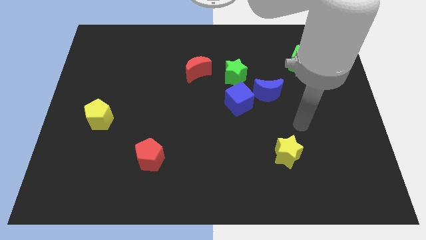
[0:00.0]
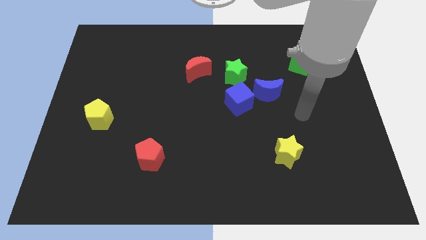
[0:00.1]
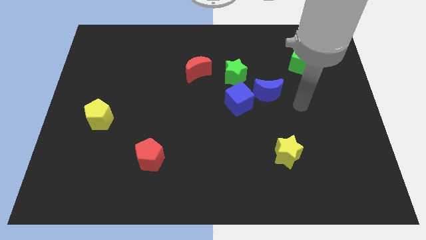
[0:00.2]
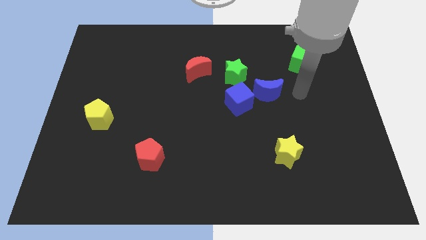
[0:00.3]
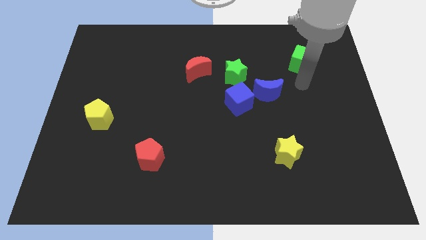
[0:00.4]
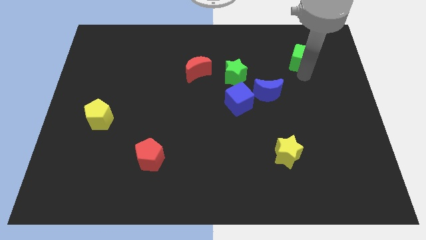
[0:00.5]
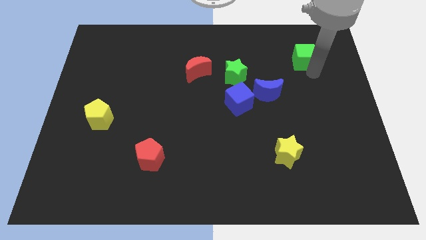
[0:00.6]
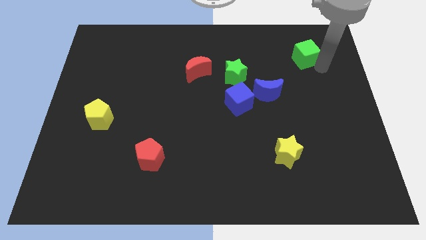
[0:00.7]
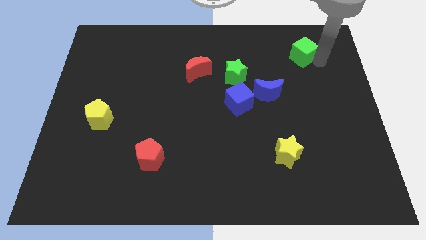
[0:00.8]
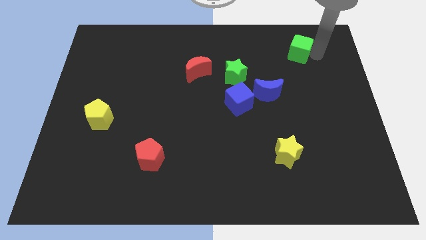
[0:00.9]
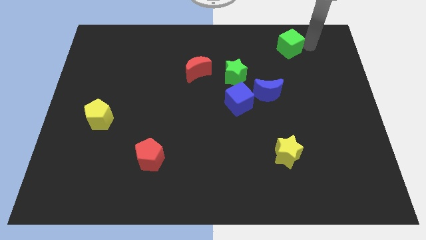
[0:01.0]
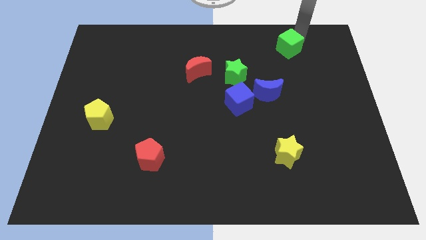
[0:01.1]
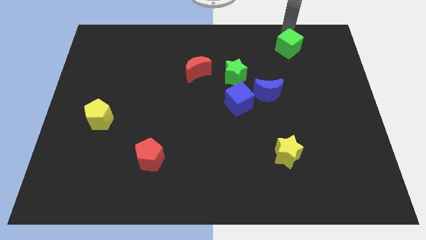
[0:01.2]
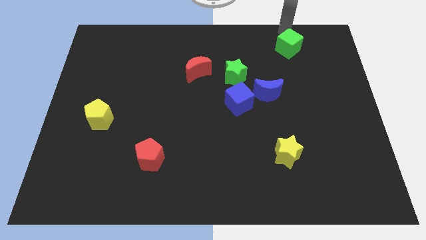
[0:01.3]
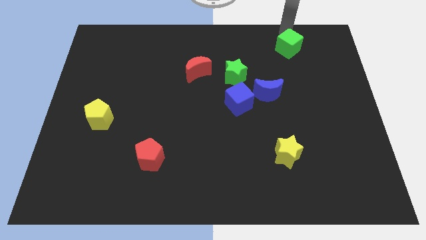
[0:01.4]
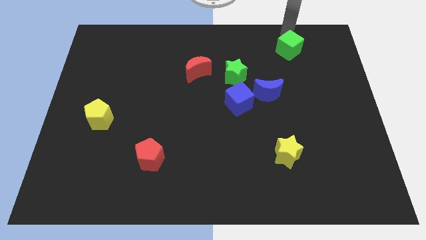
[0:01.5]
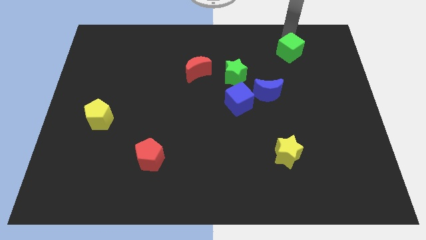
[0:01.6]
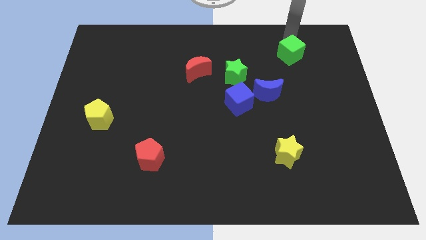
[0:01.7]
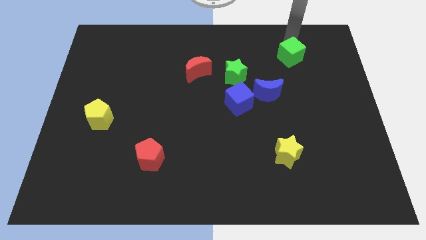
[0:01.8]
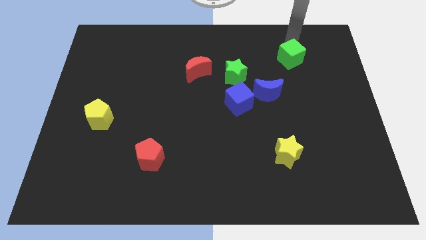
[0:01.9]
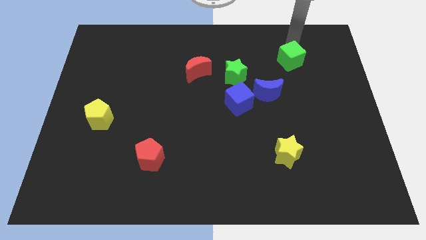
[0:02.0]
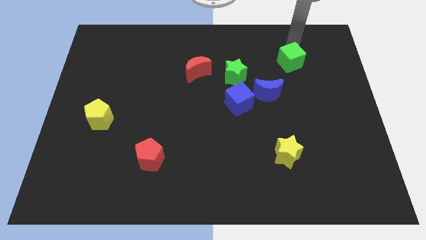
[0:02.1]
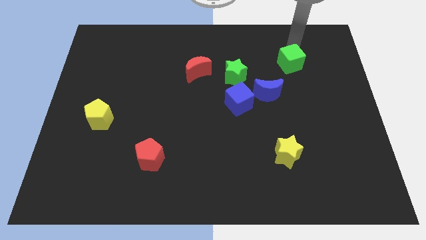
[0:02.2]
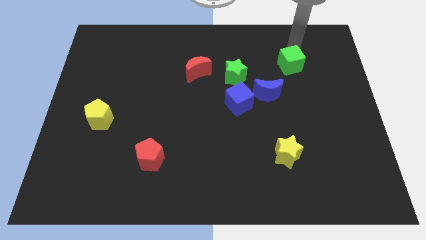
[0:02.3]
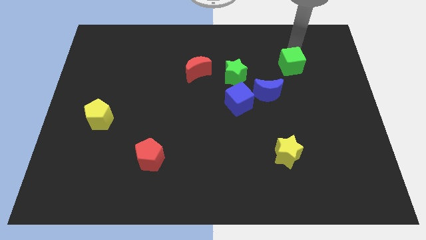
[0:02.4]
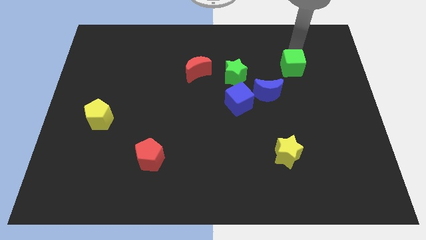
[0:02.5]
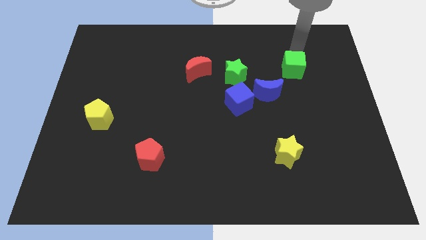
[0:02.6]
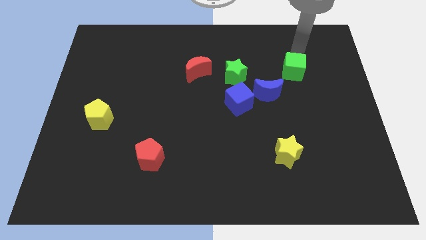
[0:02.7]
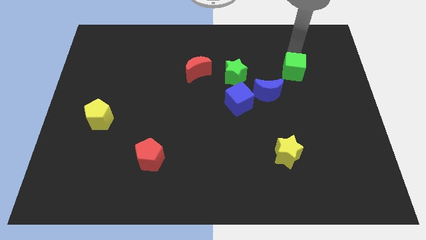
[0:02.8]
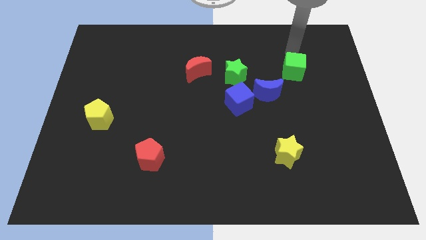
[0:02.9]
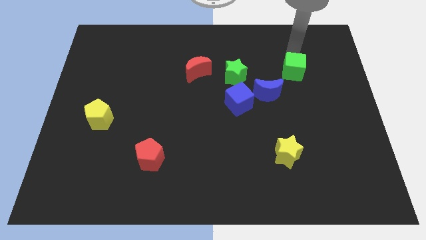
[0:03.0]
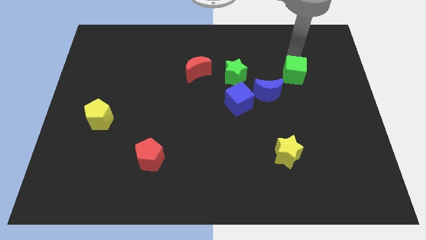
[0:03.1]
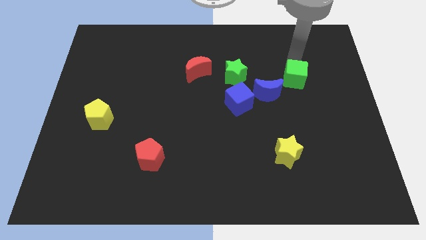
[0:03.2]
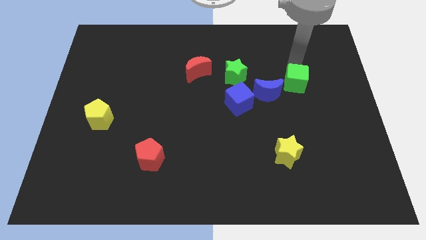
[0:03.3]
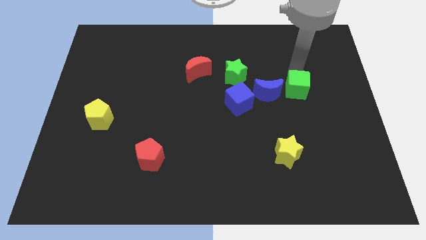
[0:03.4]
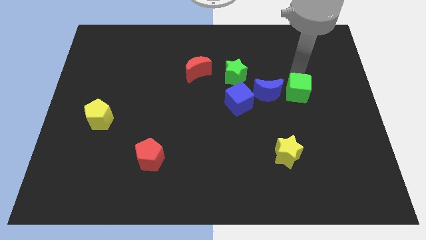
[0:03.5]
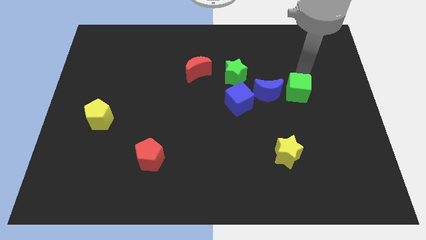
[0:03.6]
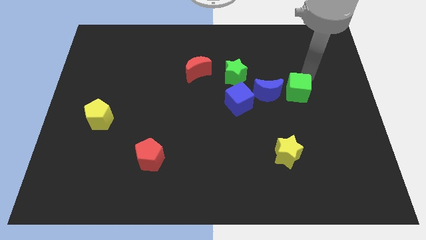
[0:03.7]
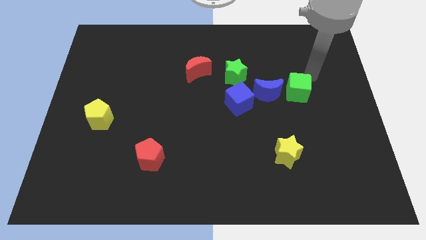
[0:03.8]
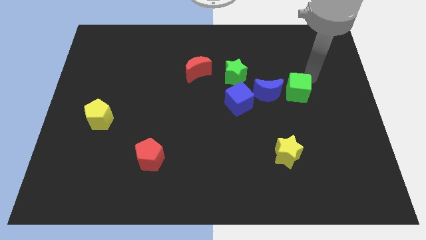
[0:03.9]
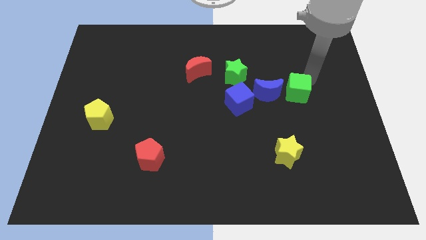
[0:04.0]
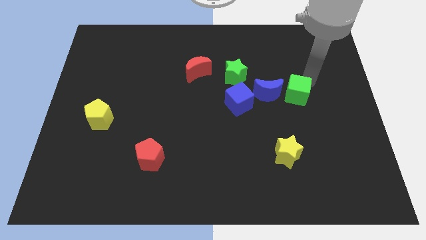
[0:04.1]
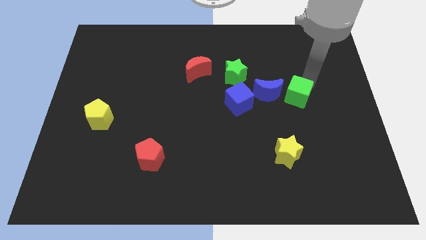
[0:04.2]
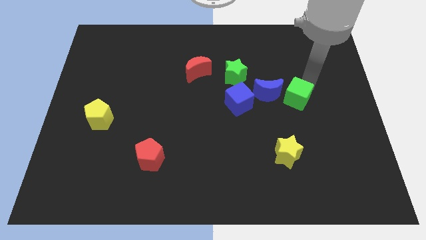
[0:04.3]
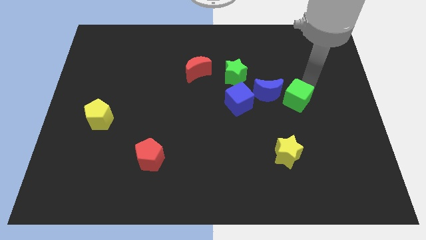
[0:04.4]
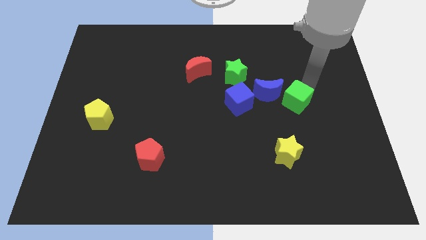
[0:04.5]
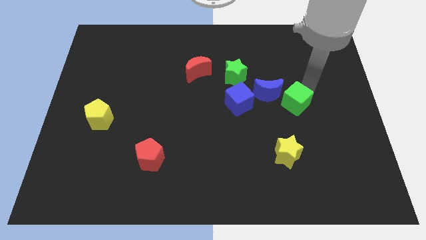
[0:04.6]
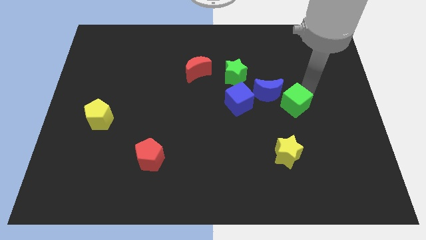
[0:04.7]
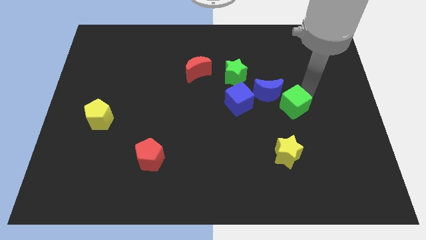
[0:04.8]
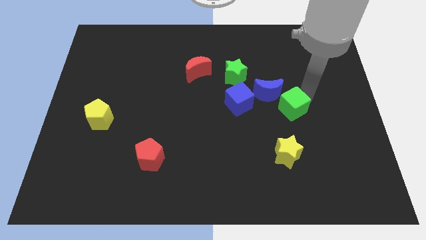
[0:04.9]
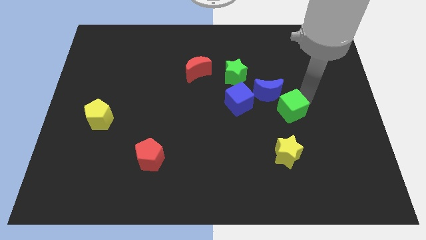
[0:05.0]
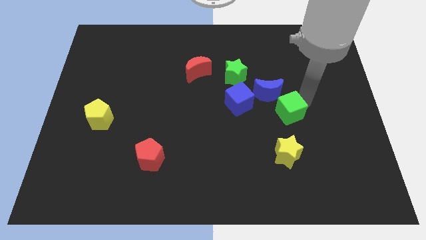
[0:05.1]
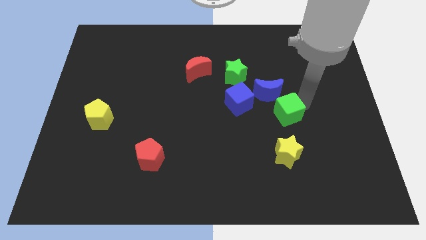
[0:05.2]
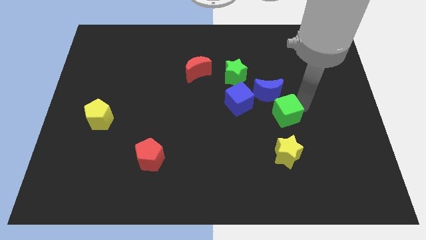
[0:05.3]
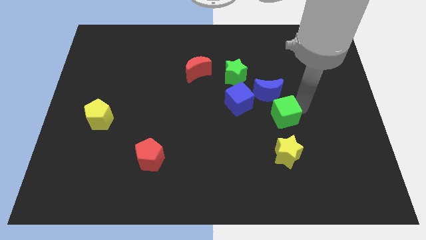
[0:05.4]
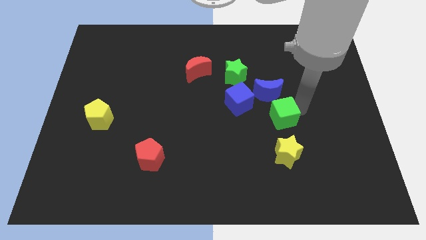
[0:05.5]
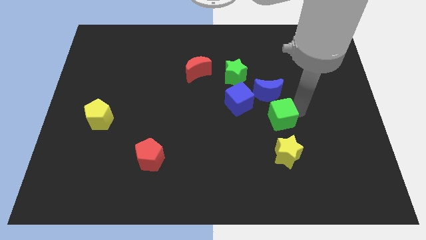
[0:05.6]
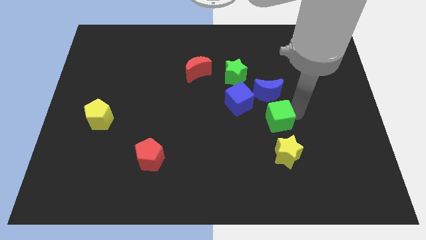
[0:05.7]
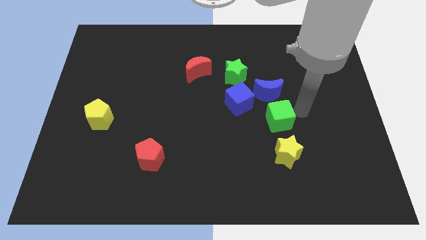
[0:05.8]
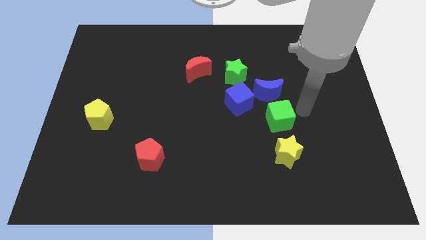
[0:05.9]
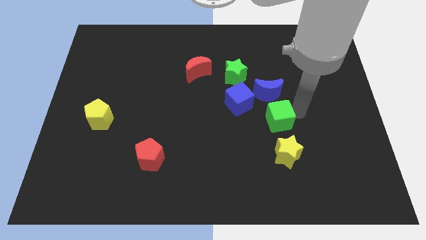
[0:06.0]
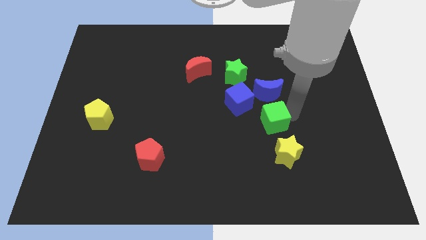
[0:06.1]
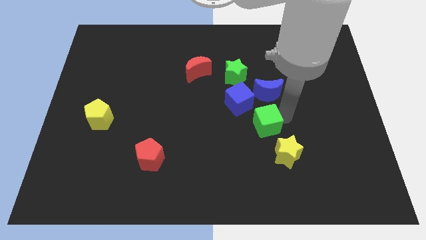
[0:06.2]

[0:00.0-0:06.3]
slide the green cube downwards and to the left diagonally

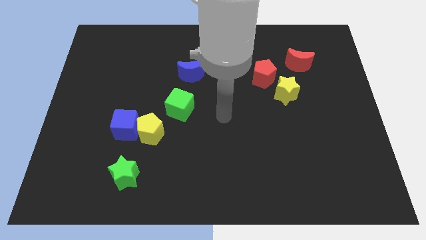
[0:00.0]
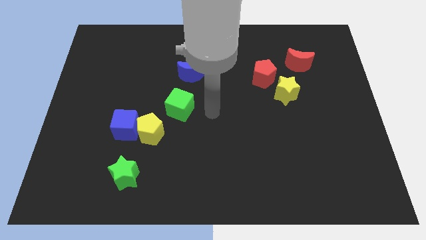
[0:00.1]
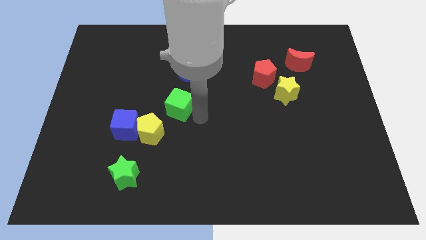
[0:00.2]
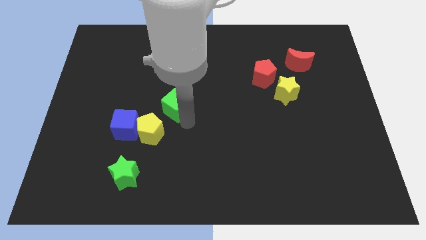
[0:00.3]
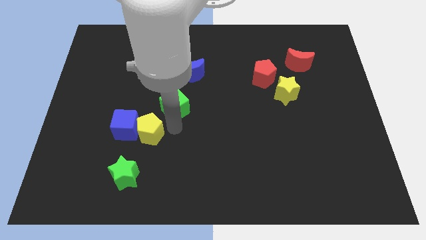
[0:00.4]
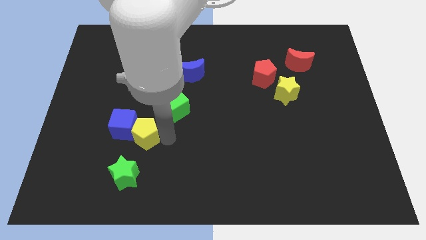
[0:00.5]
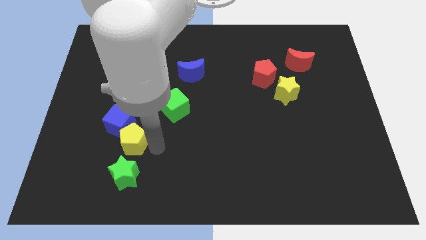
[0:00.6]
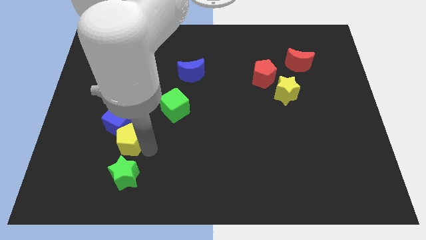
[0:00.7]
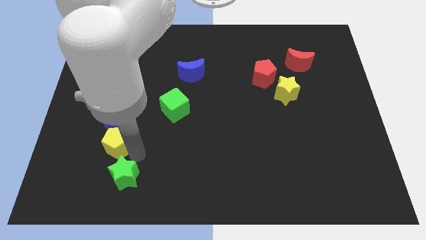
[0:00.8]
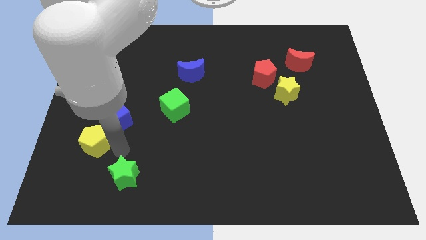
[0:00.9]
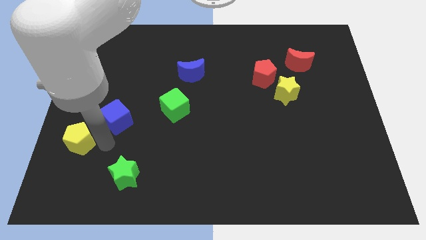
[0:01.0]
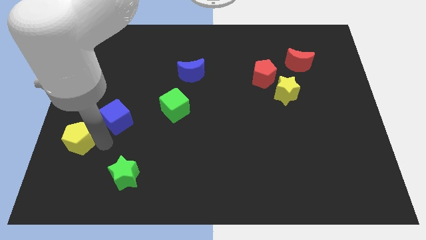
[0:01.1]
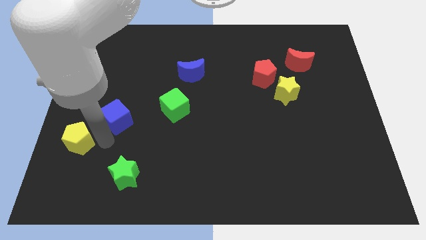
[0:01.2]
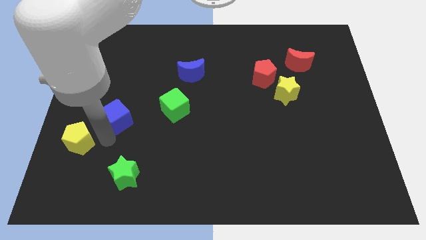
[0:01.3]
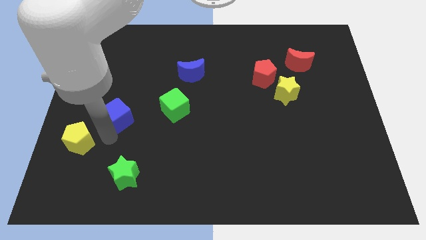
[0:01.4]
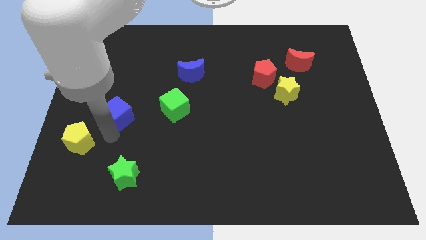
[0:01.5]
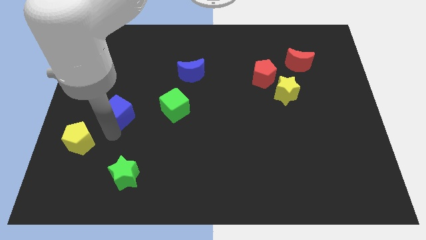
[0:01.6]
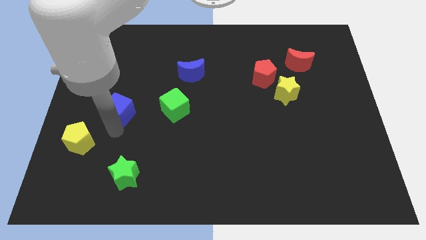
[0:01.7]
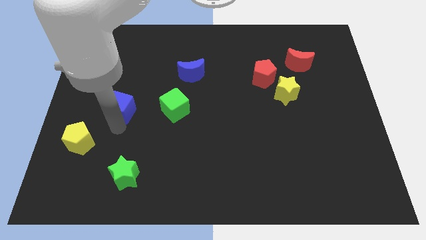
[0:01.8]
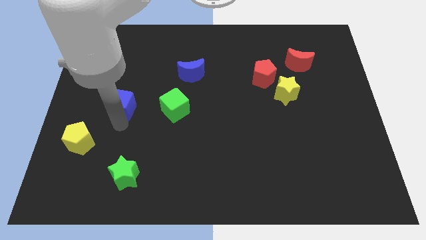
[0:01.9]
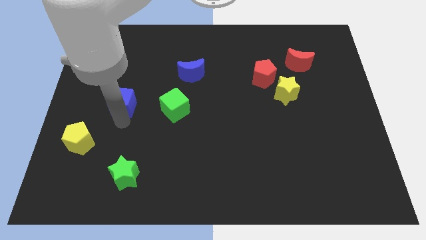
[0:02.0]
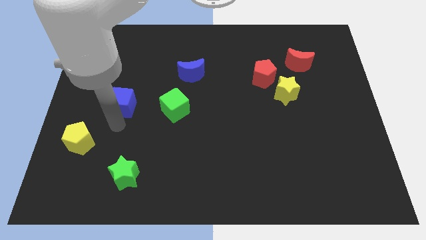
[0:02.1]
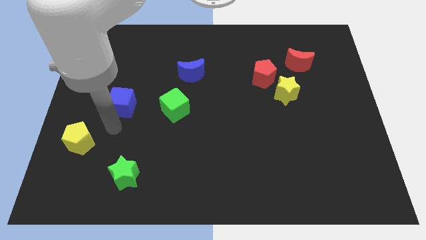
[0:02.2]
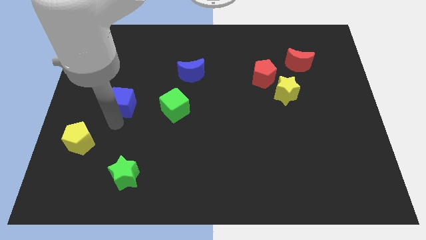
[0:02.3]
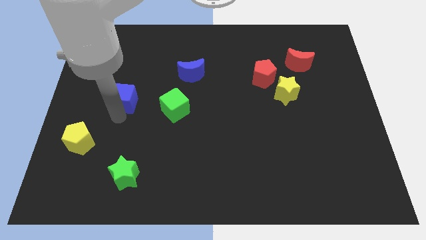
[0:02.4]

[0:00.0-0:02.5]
slightly push the blue cube up
